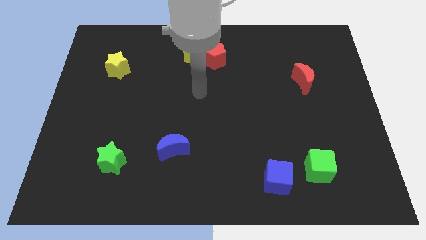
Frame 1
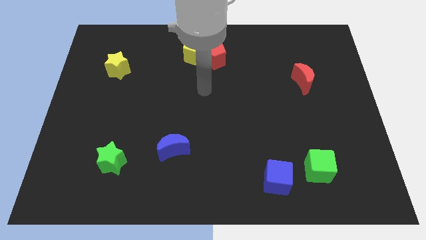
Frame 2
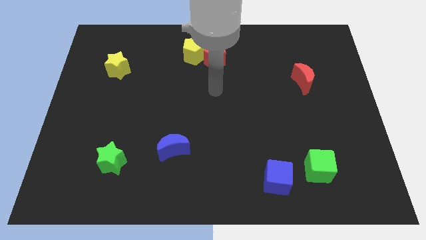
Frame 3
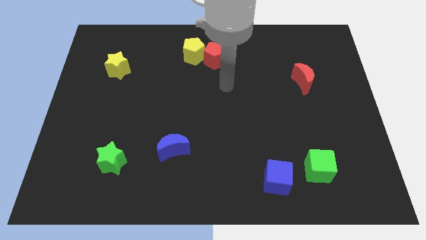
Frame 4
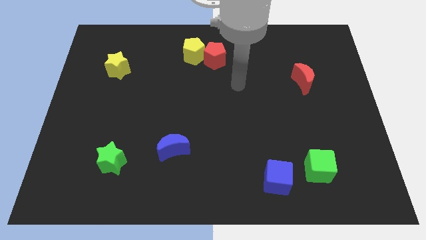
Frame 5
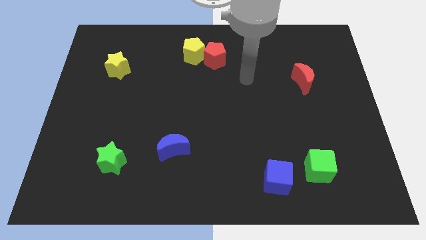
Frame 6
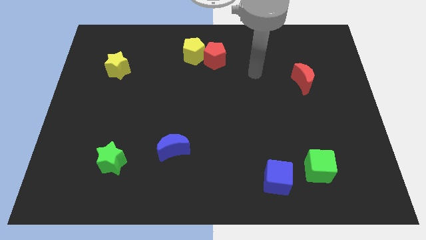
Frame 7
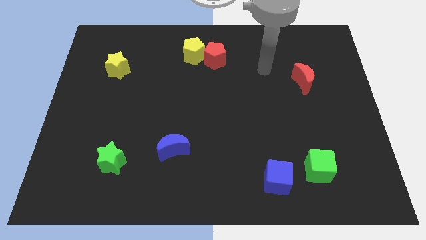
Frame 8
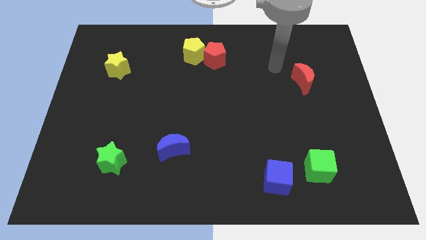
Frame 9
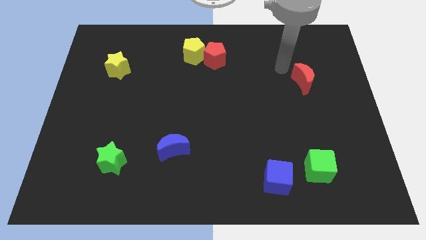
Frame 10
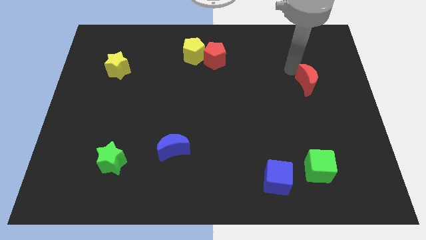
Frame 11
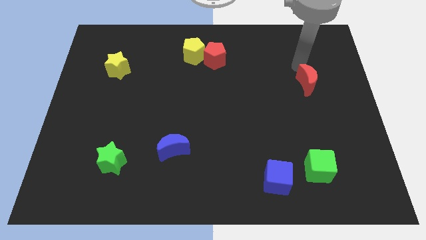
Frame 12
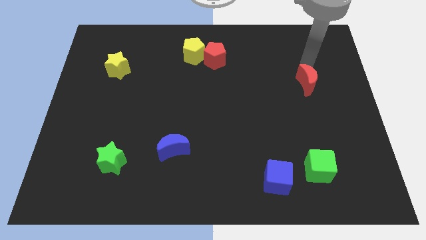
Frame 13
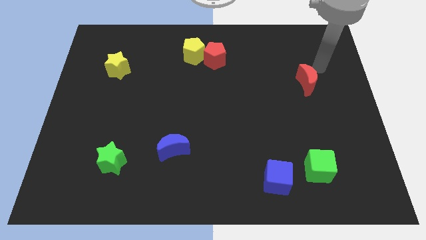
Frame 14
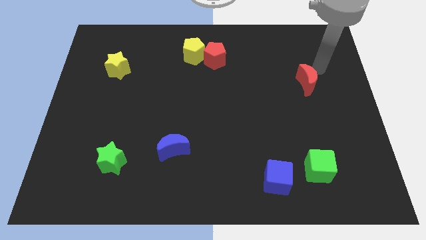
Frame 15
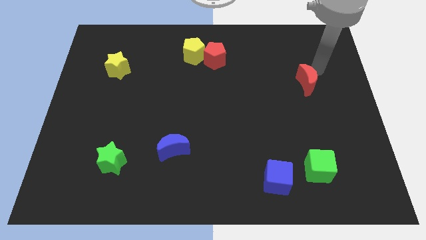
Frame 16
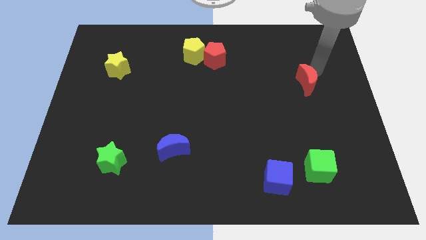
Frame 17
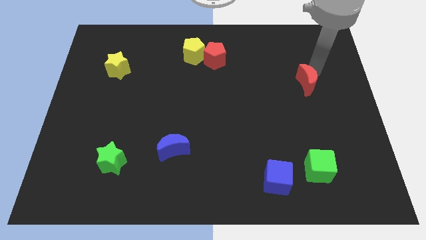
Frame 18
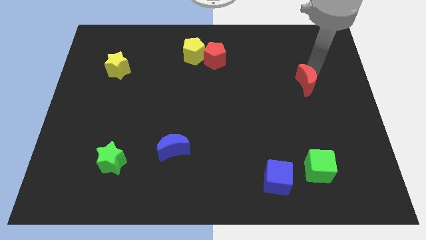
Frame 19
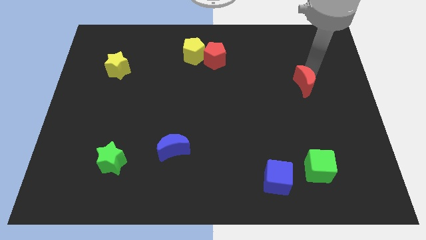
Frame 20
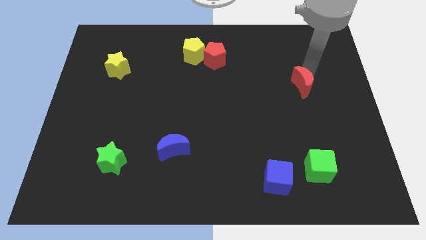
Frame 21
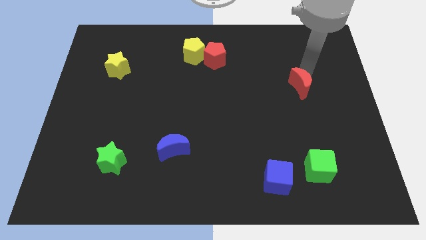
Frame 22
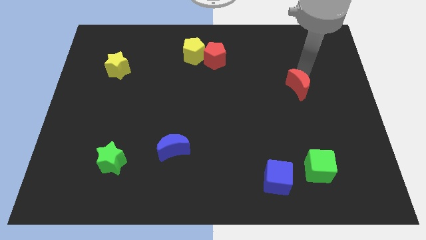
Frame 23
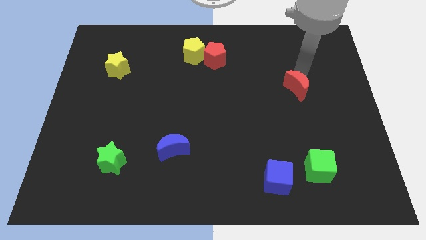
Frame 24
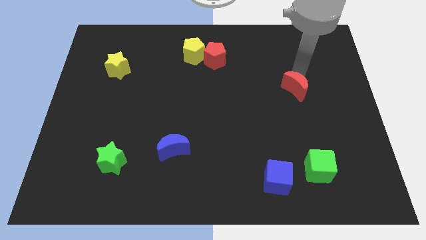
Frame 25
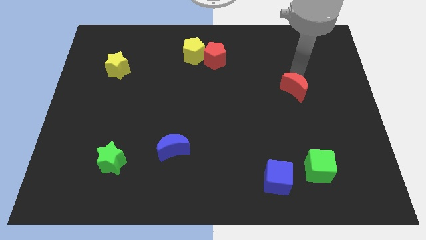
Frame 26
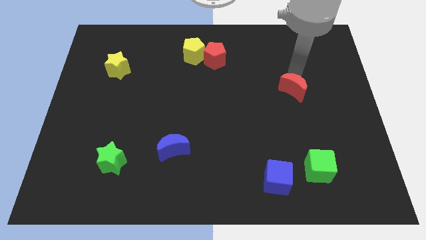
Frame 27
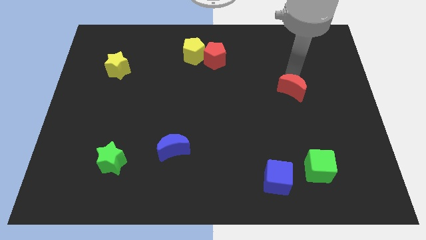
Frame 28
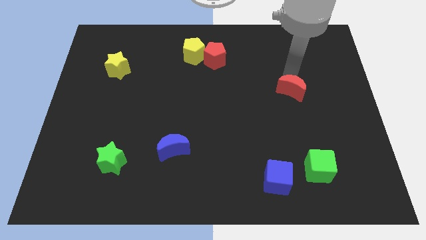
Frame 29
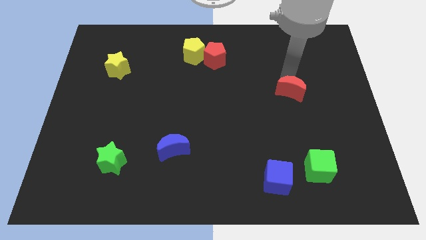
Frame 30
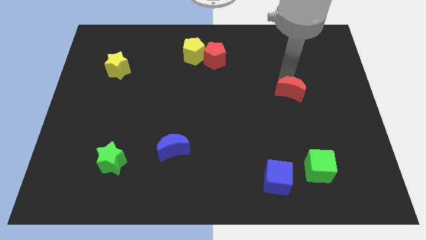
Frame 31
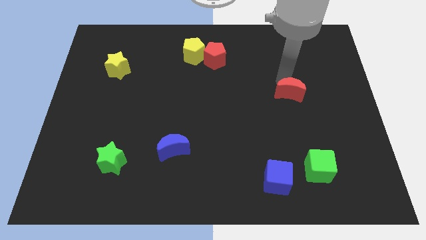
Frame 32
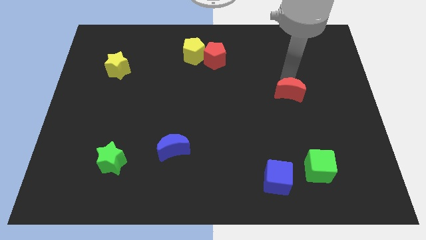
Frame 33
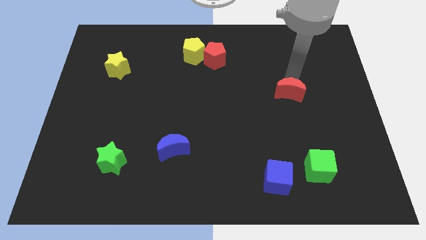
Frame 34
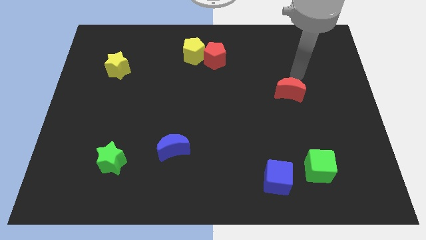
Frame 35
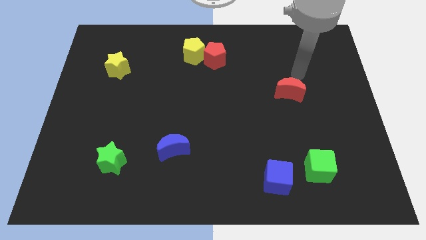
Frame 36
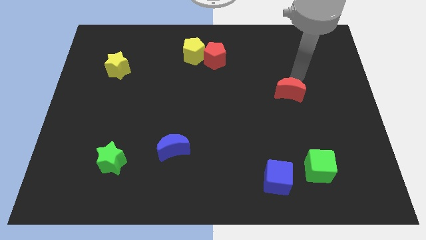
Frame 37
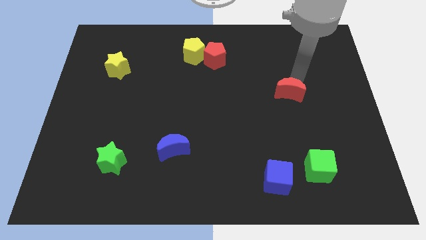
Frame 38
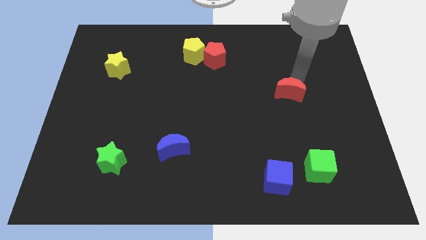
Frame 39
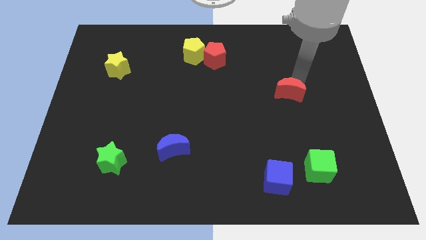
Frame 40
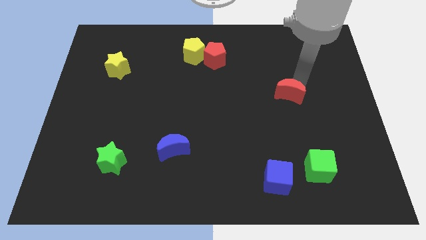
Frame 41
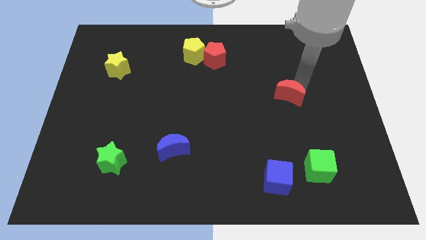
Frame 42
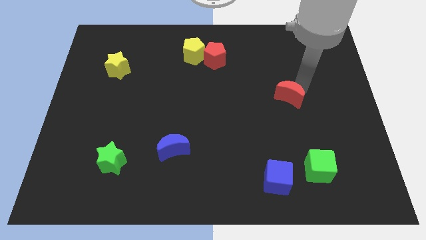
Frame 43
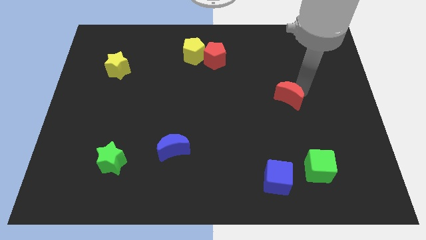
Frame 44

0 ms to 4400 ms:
slide the red moon down and to the left somewhat

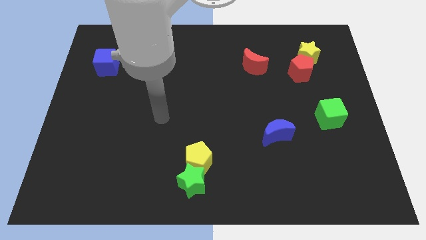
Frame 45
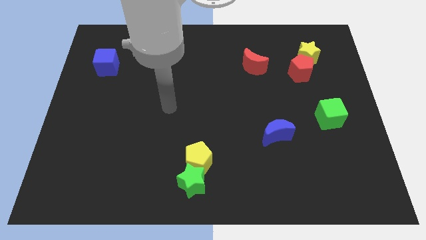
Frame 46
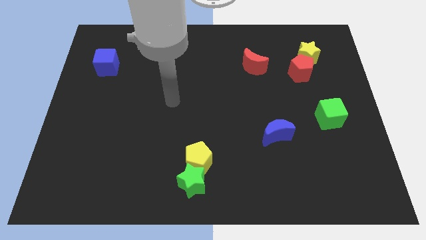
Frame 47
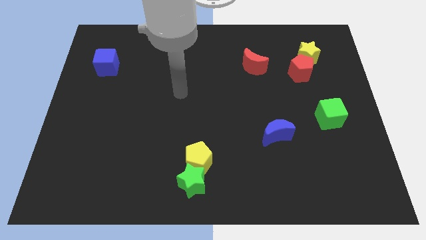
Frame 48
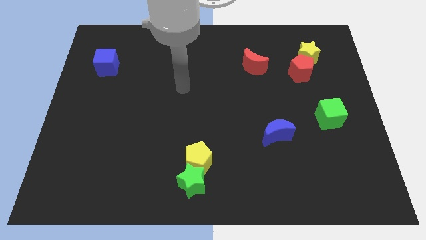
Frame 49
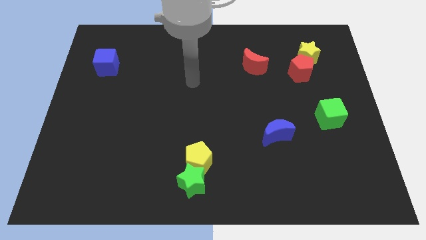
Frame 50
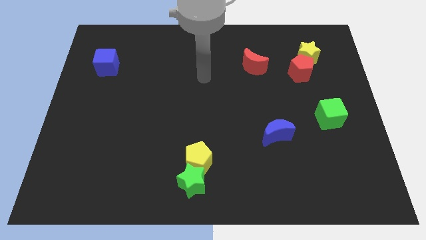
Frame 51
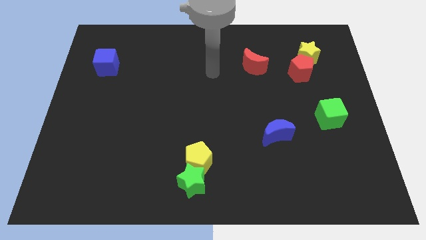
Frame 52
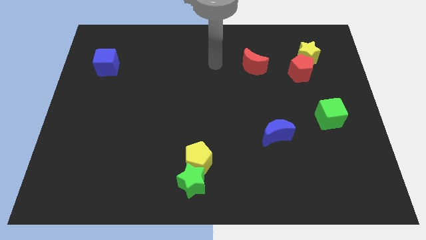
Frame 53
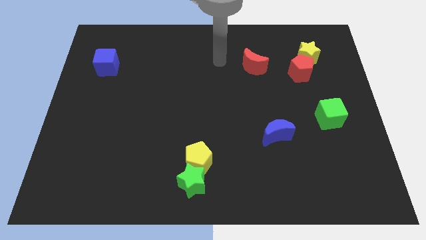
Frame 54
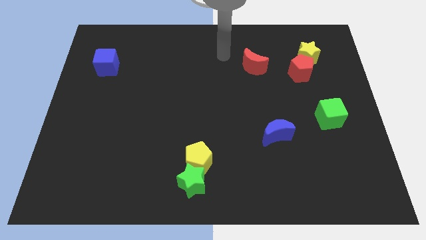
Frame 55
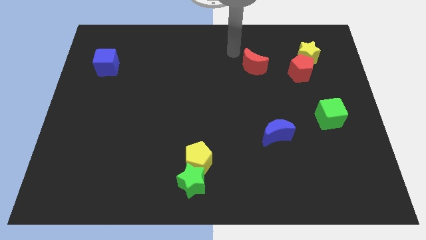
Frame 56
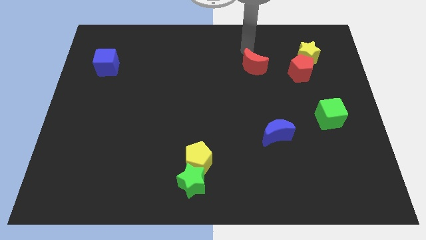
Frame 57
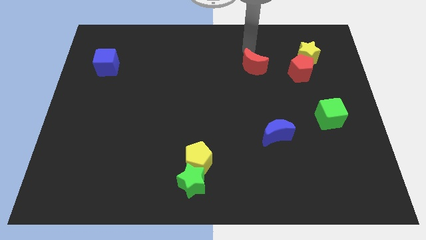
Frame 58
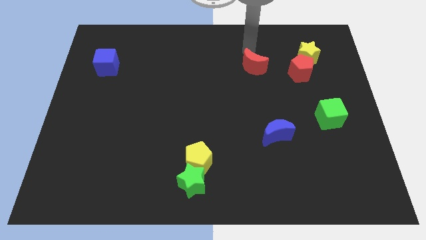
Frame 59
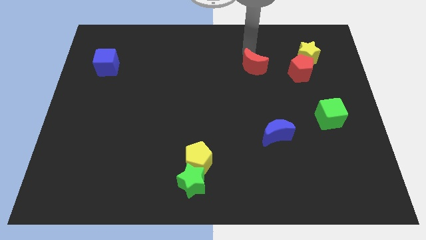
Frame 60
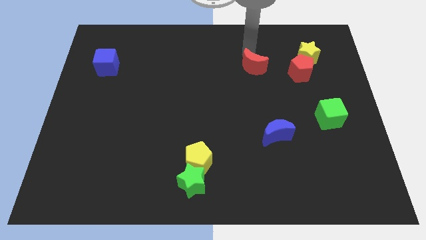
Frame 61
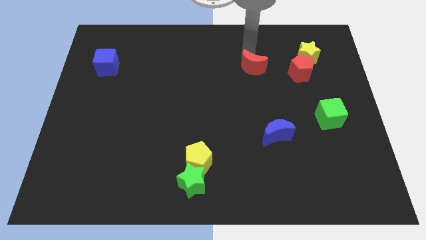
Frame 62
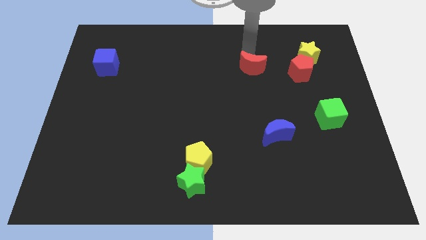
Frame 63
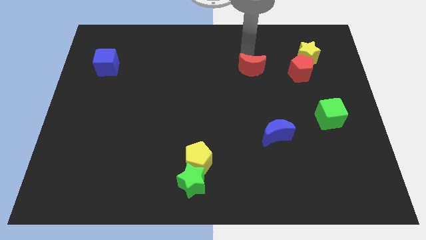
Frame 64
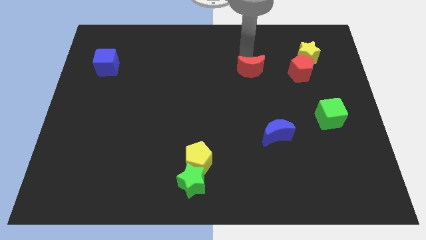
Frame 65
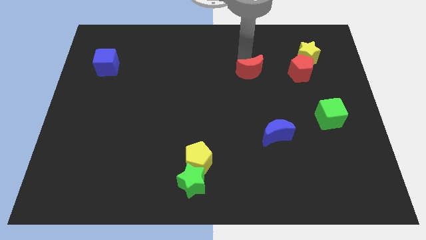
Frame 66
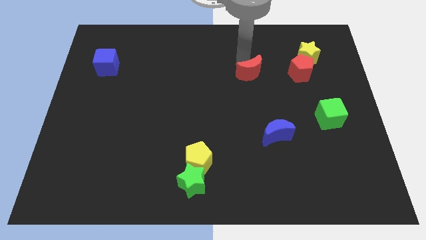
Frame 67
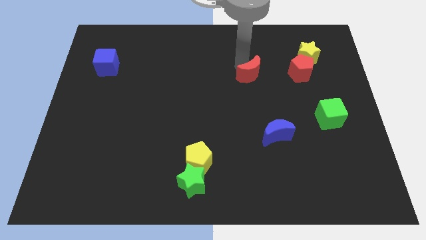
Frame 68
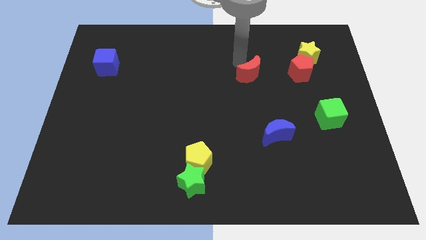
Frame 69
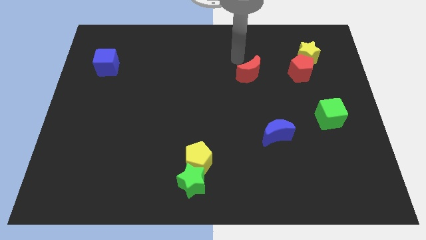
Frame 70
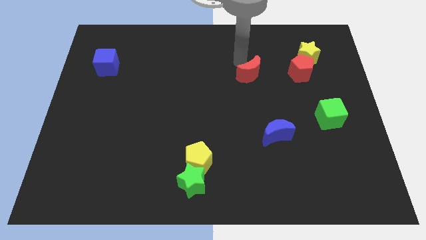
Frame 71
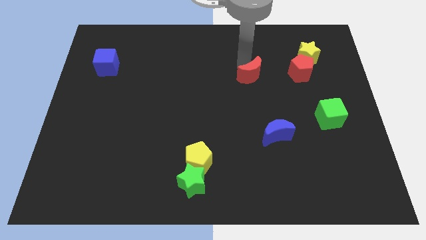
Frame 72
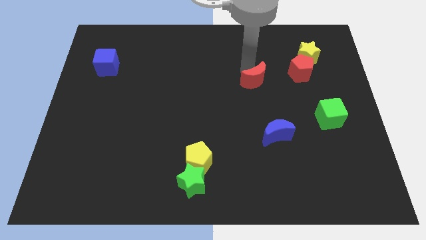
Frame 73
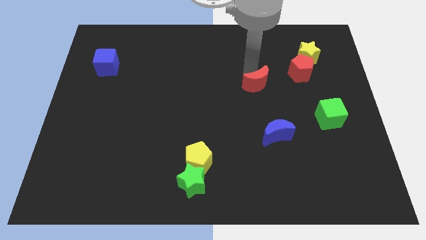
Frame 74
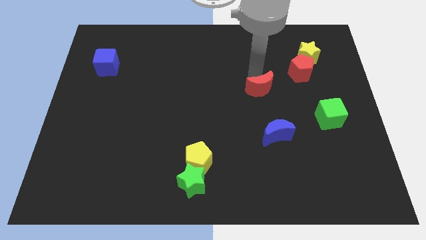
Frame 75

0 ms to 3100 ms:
slightly push the red moon down

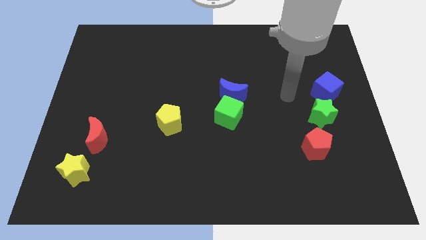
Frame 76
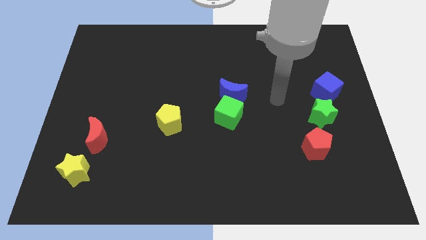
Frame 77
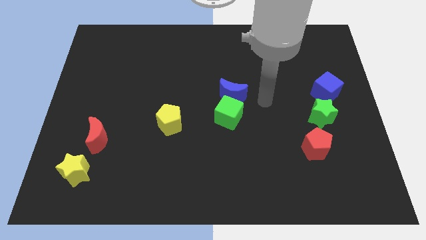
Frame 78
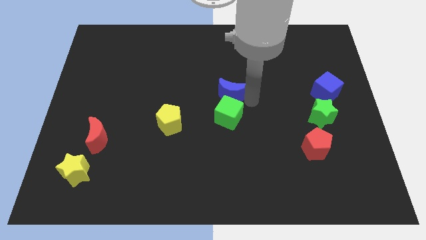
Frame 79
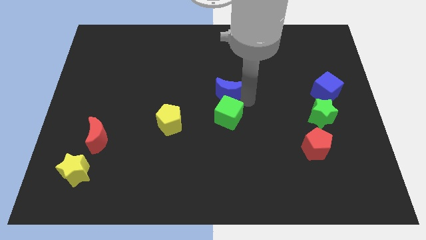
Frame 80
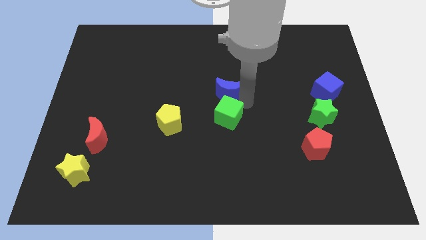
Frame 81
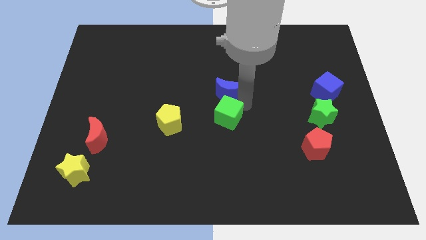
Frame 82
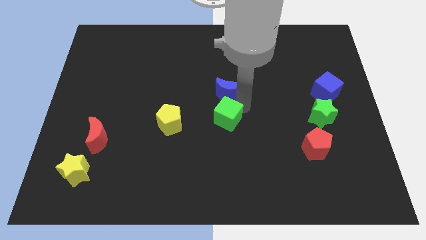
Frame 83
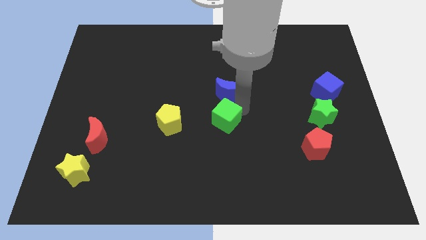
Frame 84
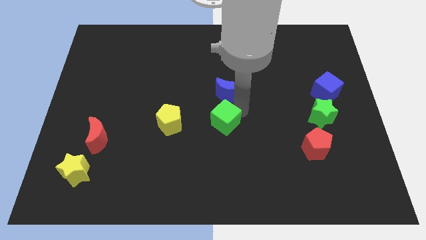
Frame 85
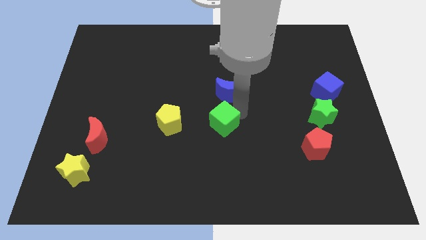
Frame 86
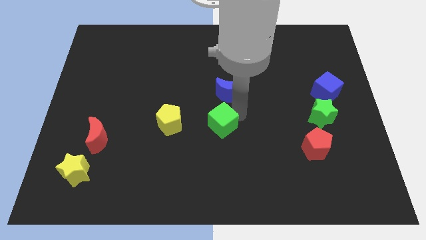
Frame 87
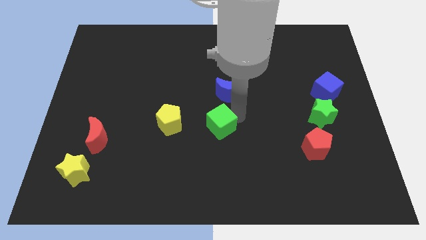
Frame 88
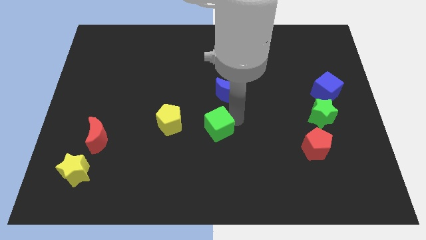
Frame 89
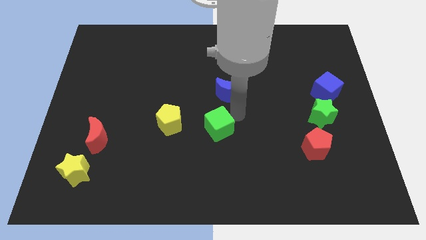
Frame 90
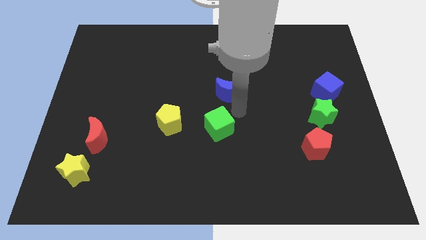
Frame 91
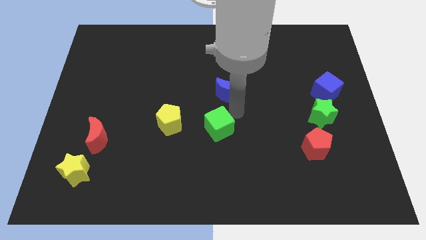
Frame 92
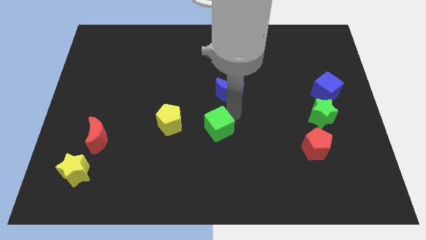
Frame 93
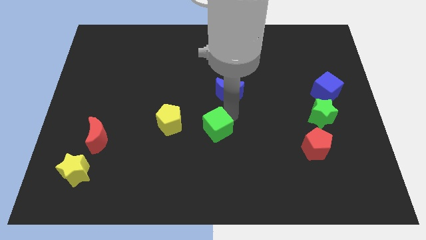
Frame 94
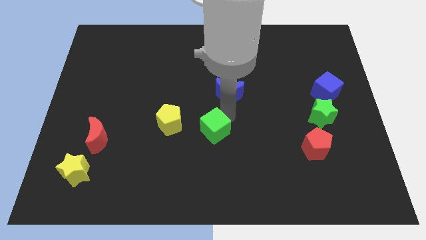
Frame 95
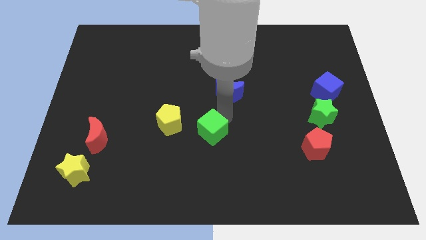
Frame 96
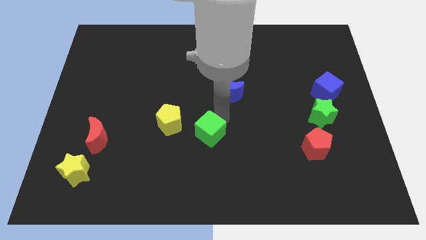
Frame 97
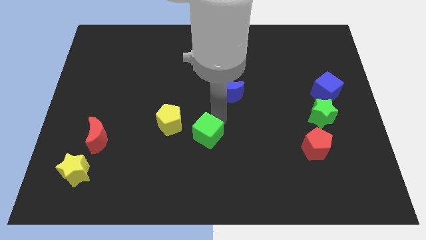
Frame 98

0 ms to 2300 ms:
push the green cube a little downwards and to the left diagonally
